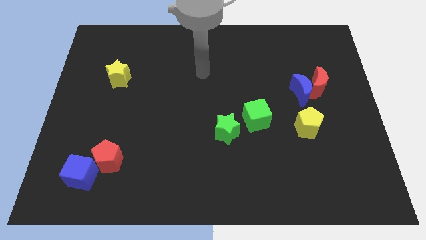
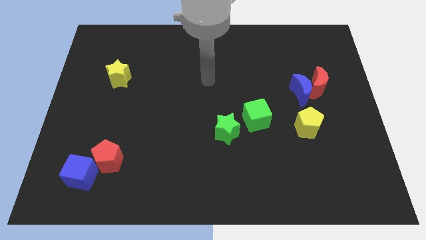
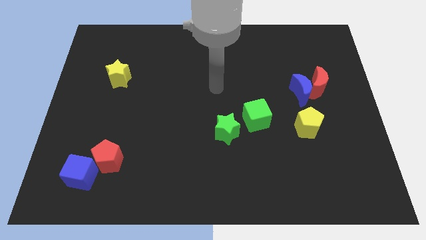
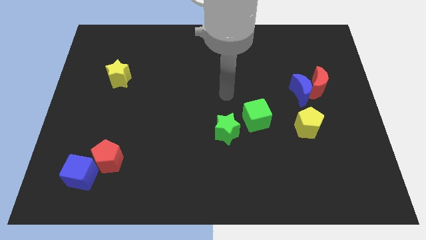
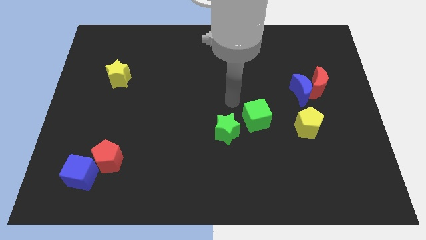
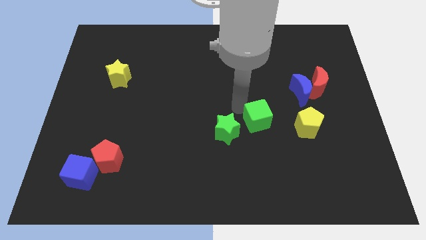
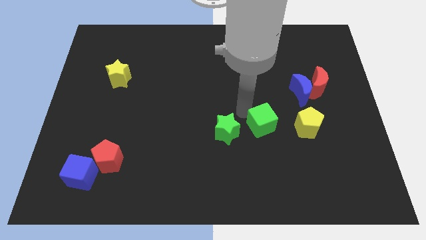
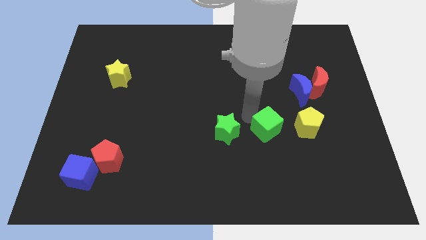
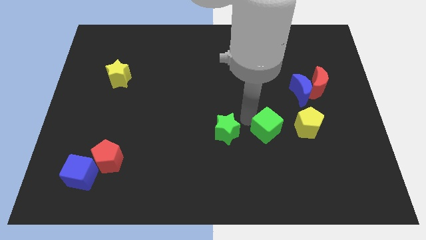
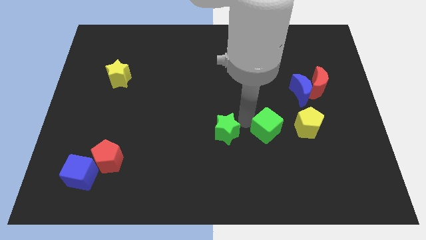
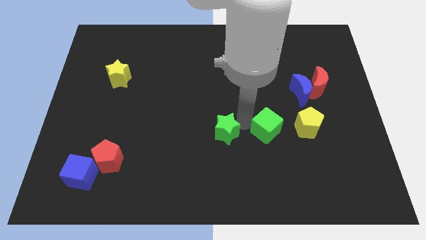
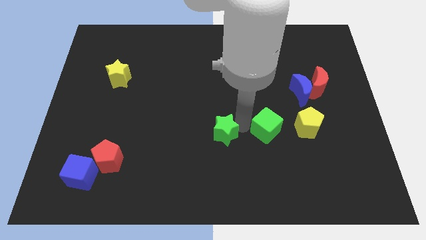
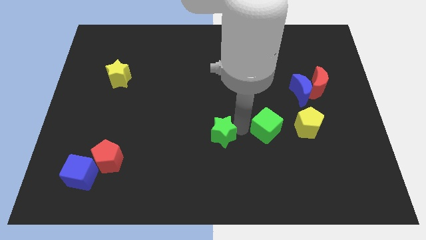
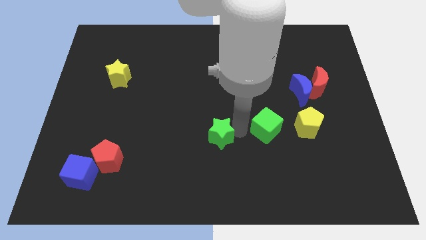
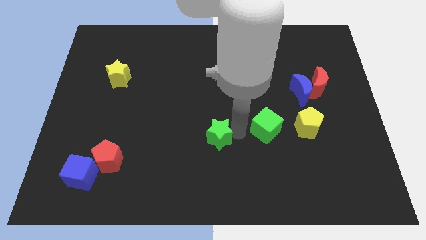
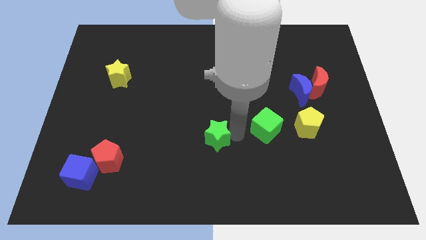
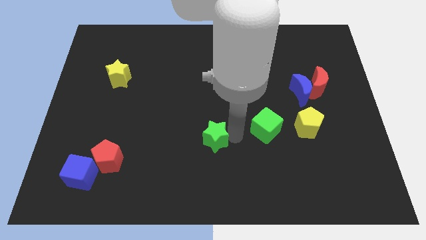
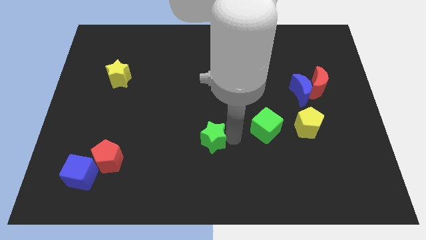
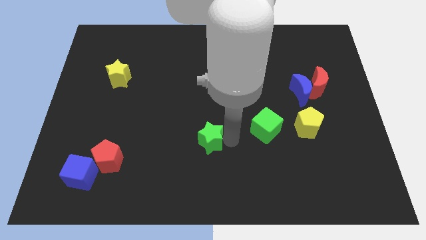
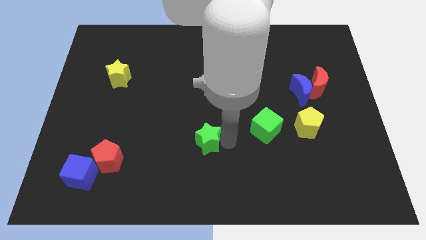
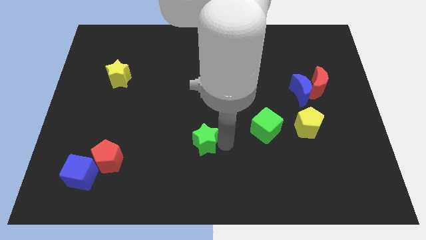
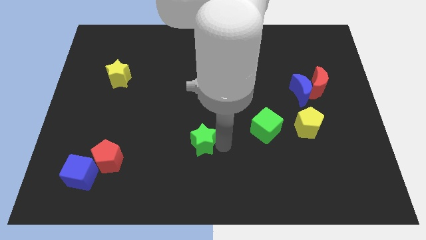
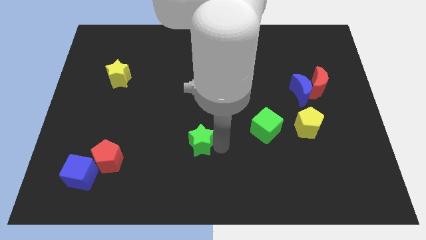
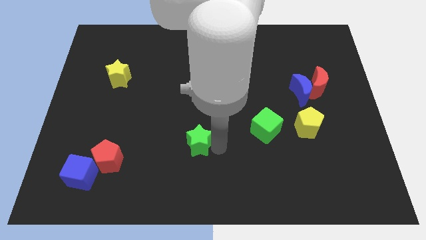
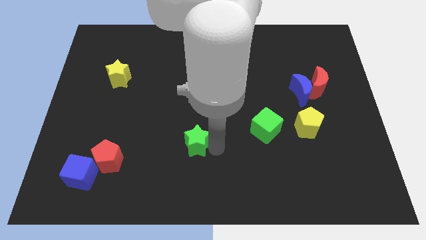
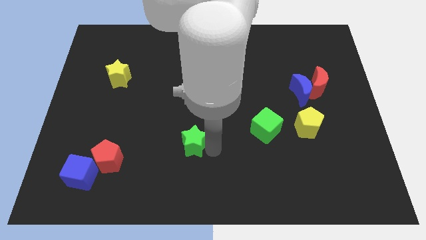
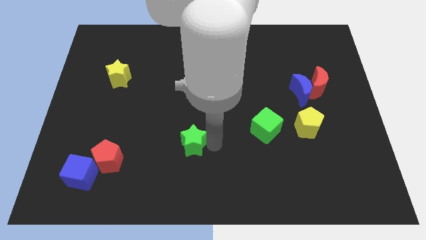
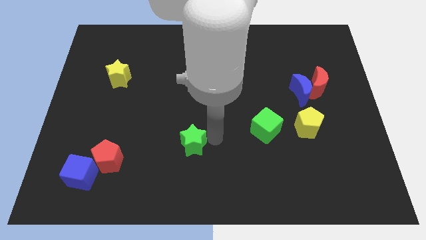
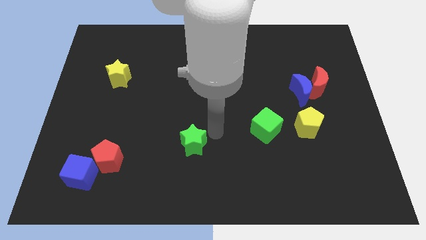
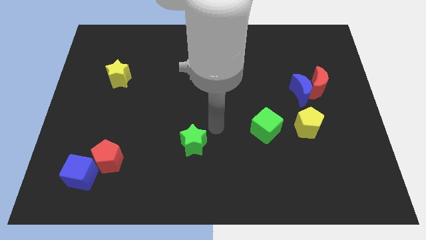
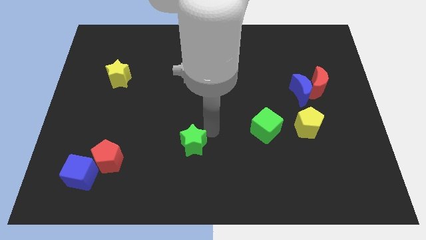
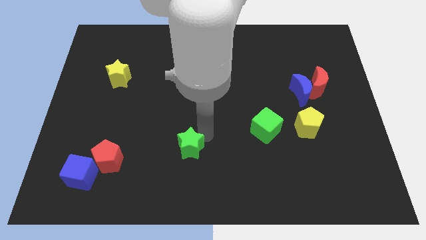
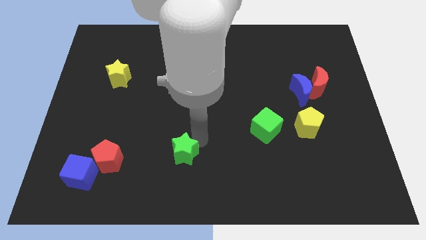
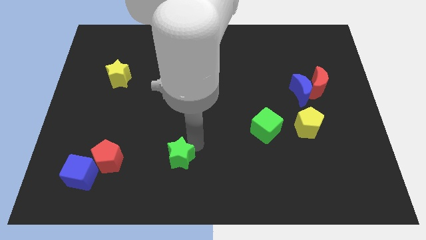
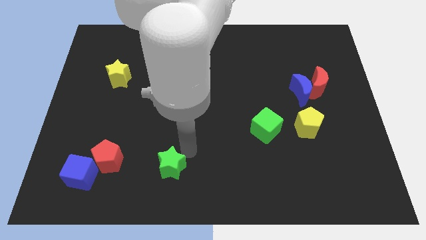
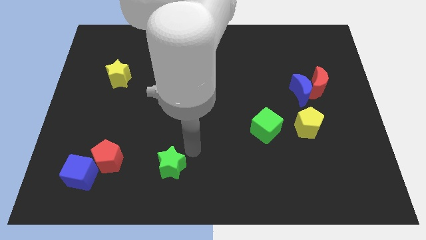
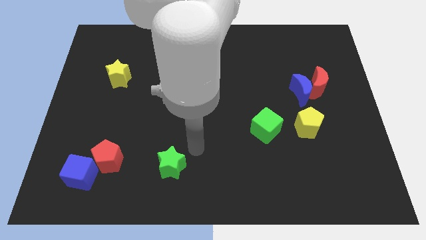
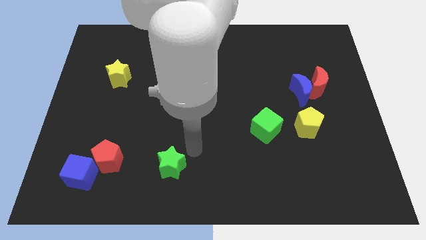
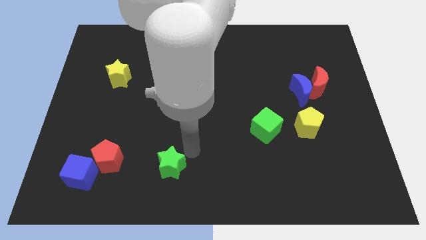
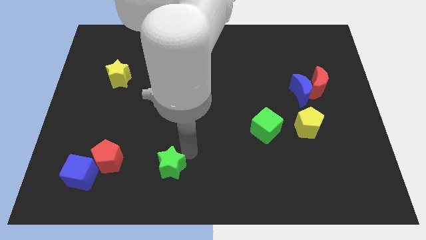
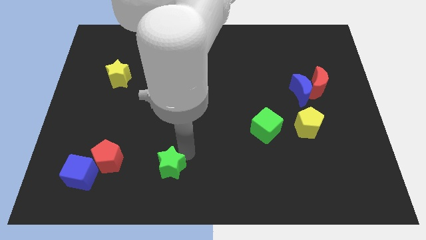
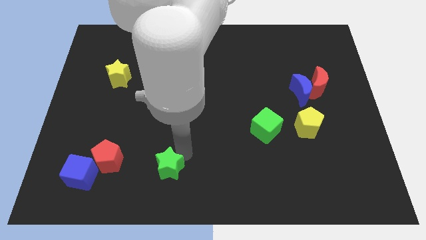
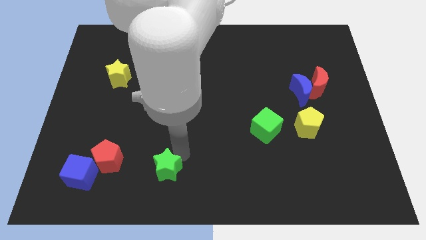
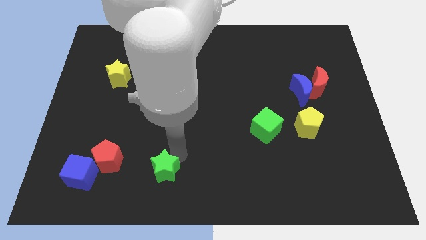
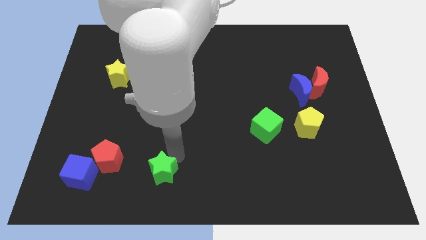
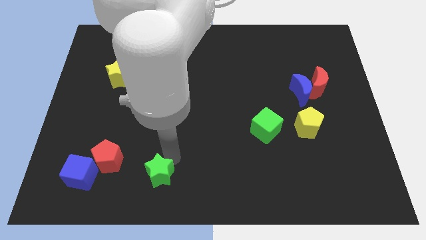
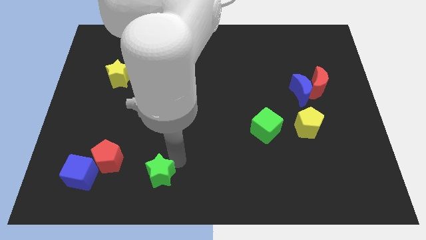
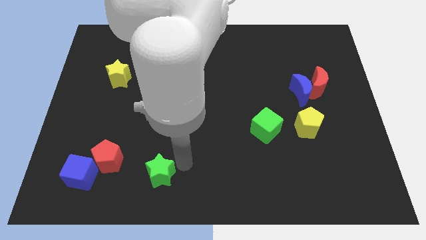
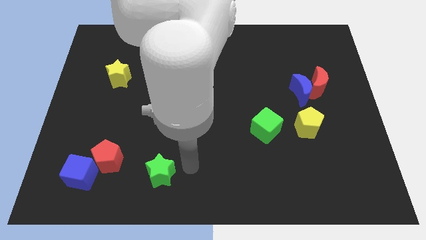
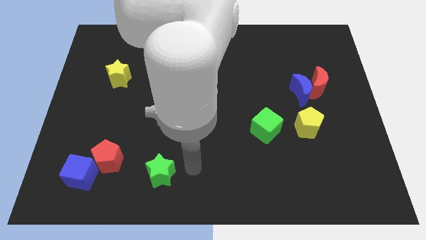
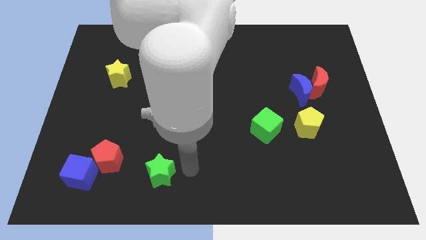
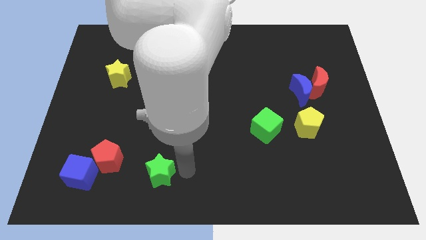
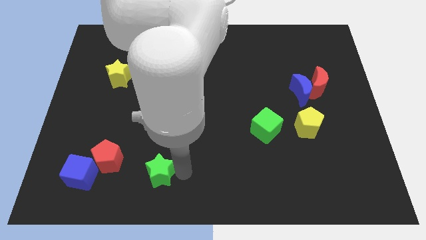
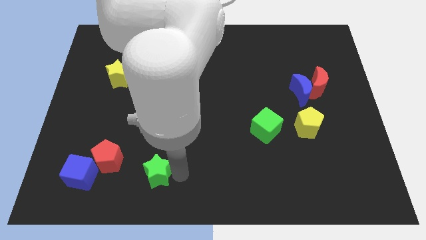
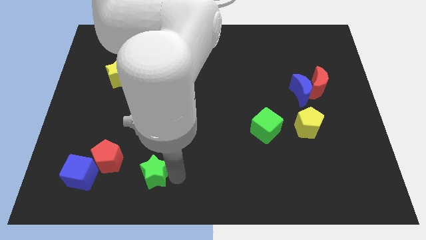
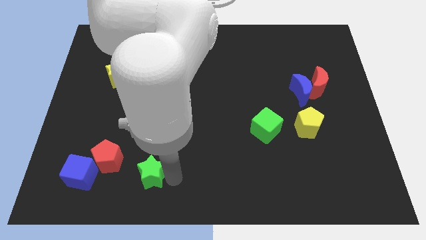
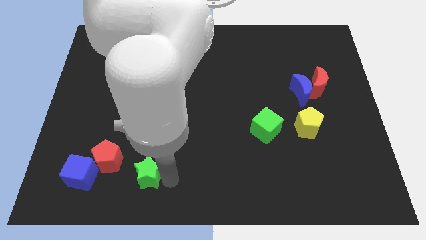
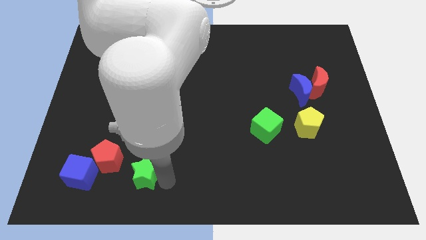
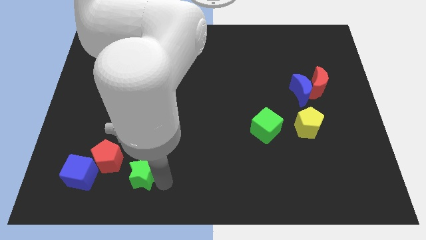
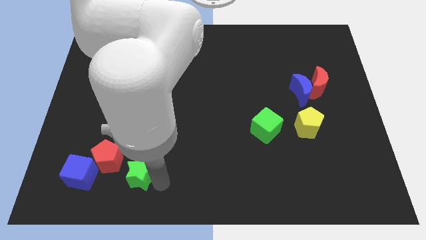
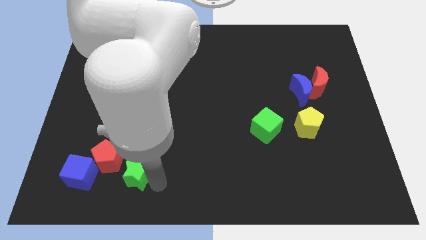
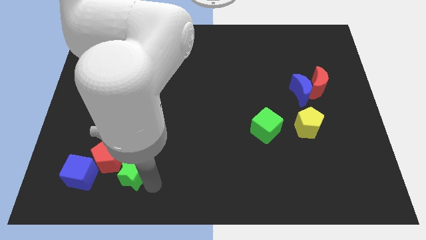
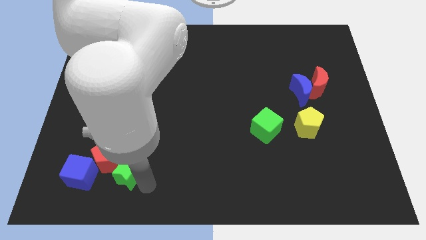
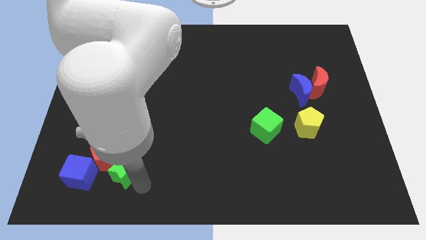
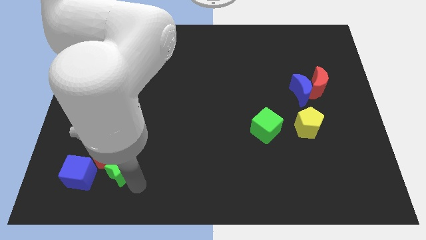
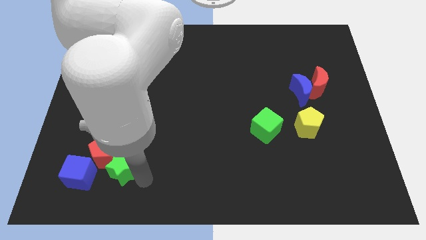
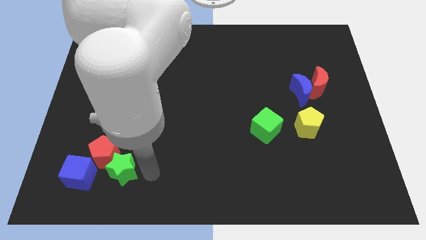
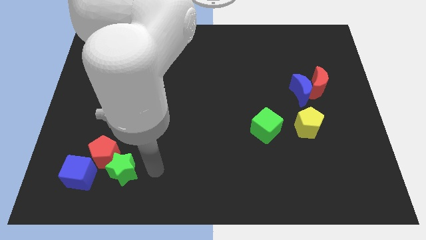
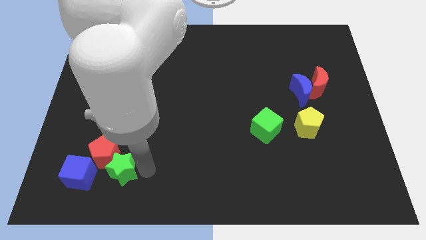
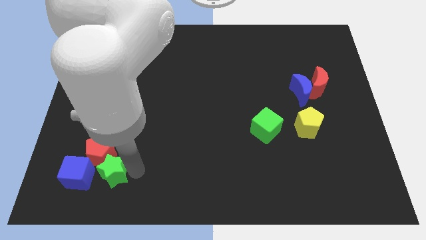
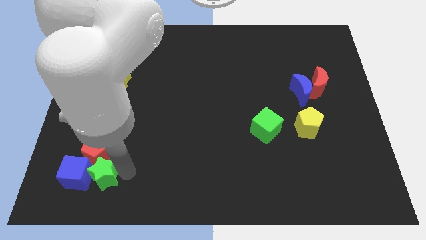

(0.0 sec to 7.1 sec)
slide the green star to the blue cube

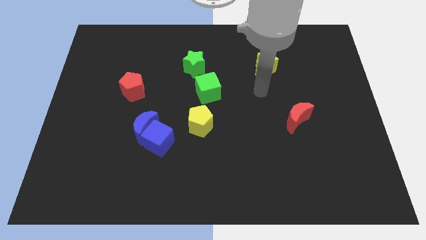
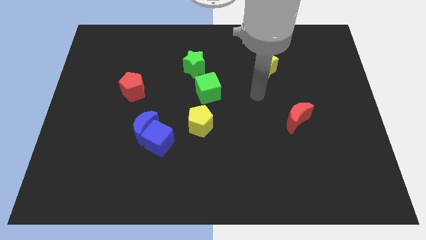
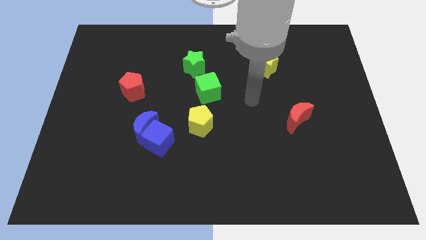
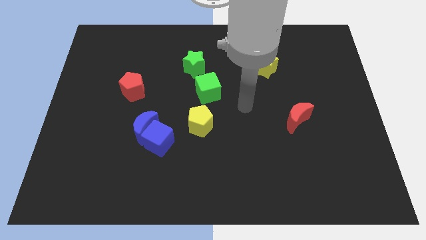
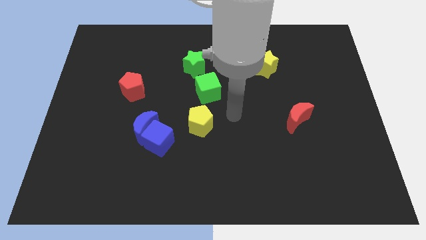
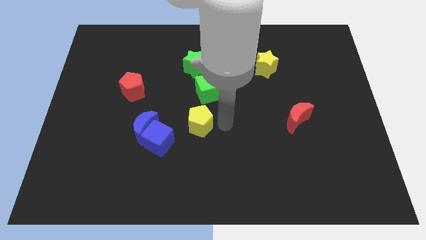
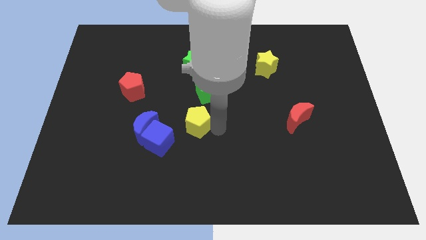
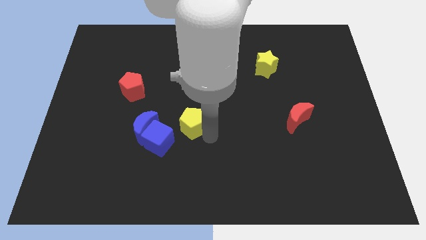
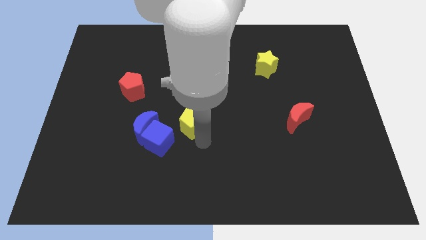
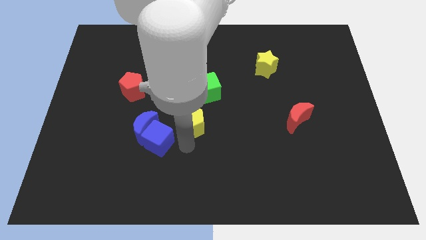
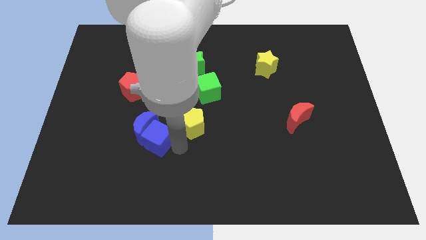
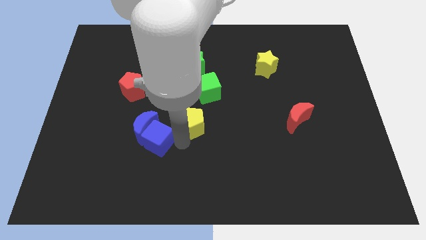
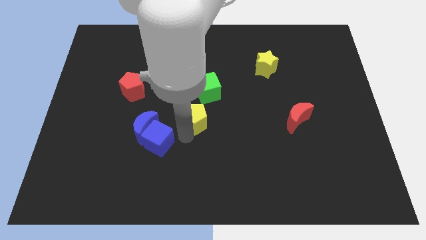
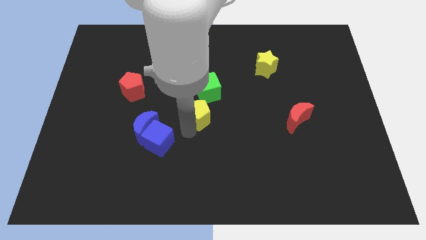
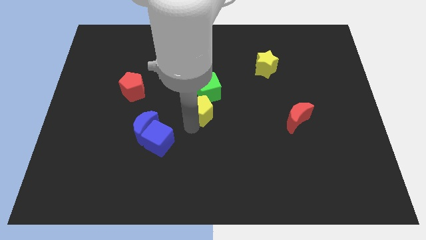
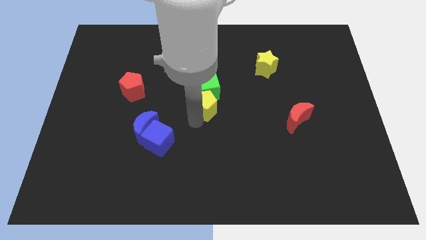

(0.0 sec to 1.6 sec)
put the yellow pentagon towards the green cube
